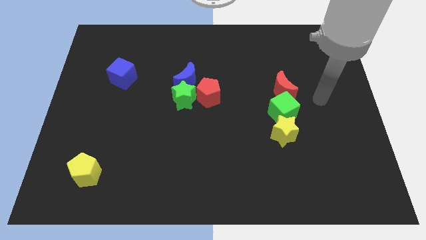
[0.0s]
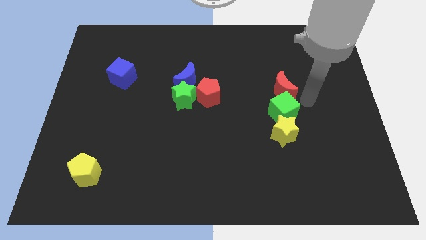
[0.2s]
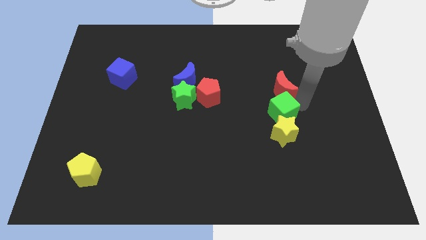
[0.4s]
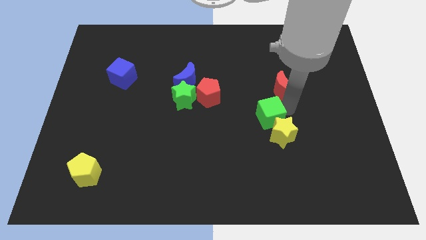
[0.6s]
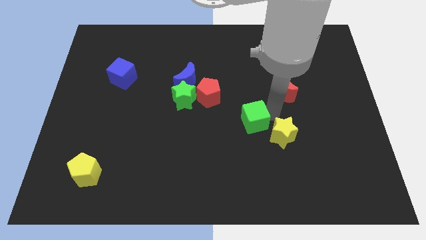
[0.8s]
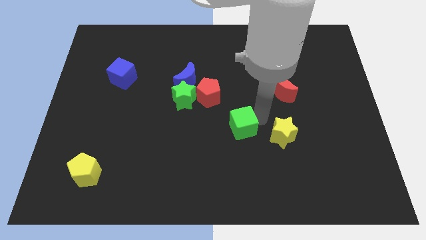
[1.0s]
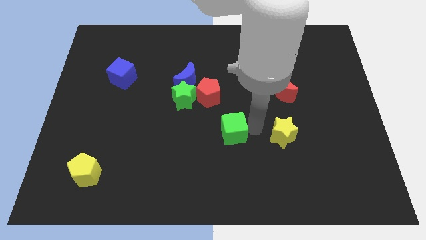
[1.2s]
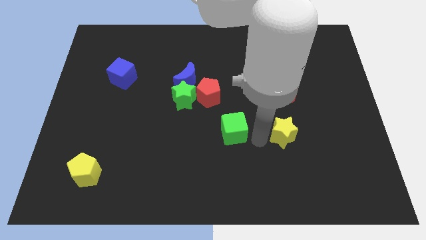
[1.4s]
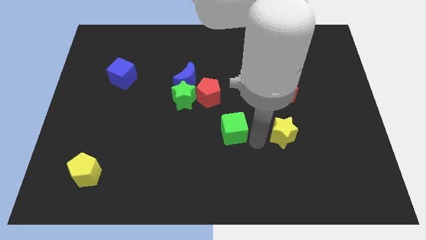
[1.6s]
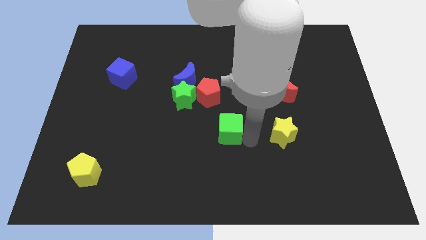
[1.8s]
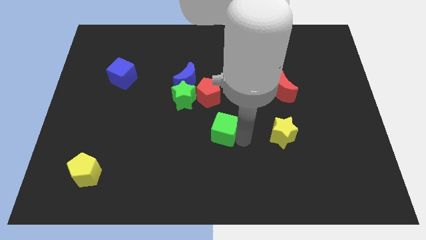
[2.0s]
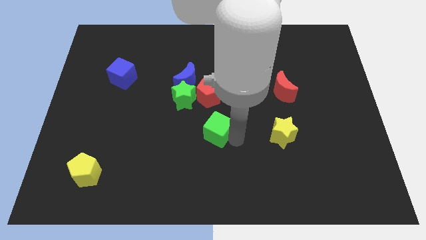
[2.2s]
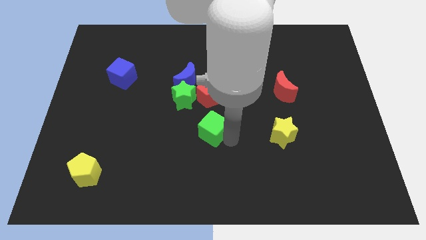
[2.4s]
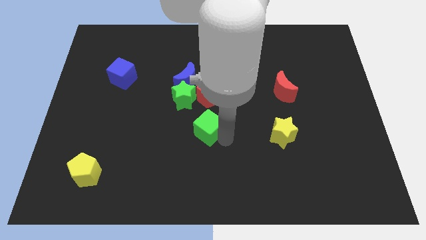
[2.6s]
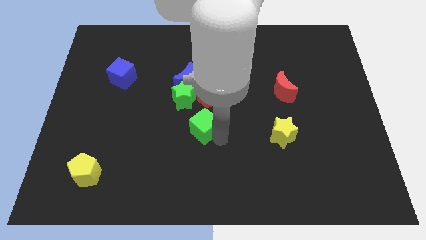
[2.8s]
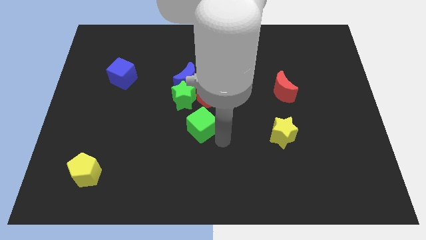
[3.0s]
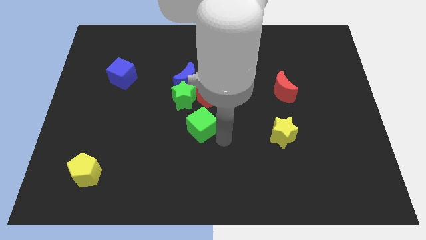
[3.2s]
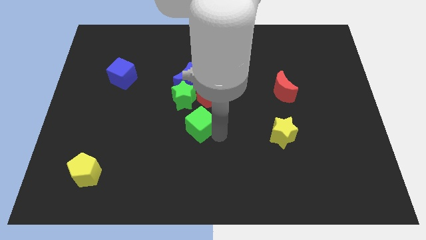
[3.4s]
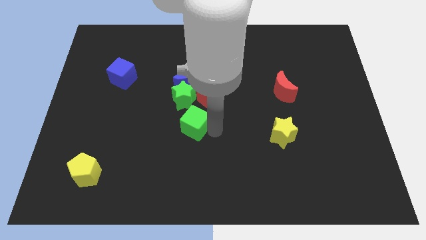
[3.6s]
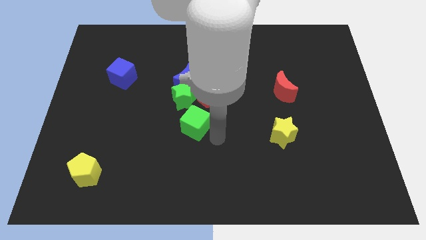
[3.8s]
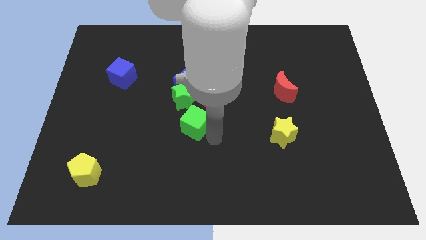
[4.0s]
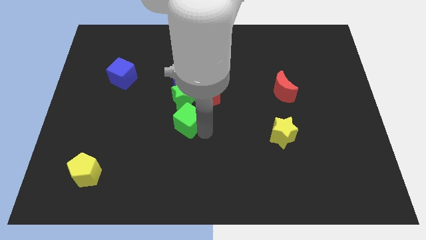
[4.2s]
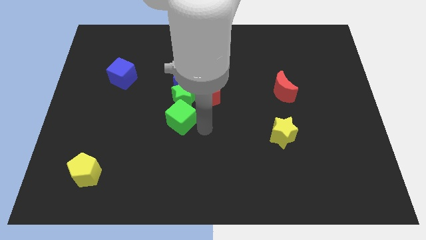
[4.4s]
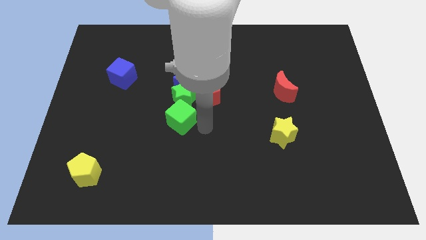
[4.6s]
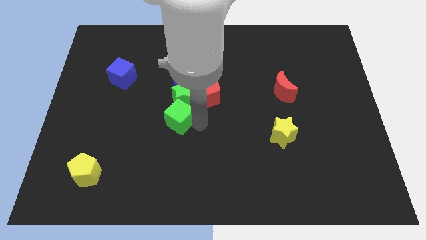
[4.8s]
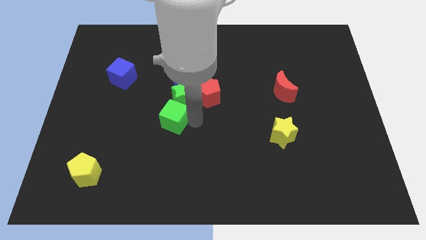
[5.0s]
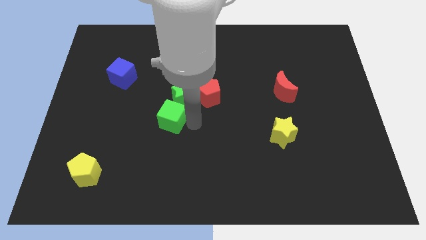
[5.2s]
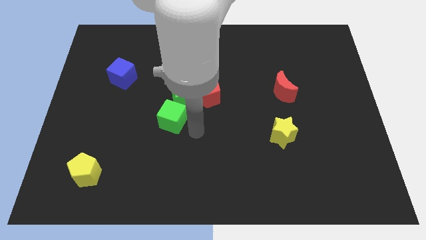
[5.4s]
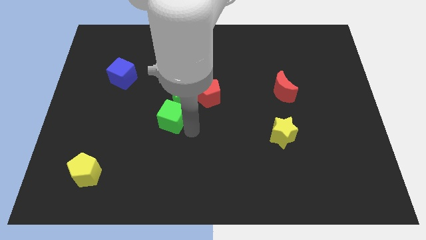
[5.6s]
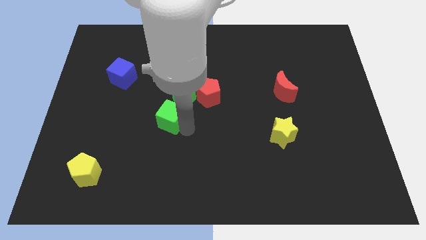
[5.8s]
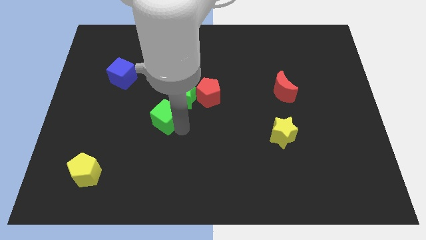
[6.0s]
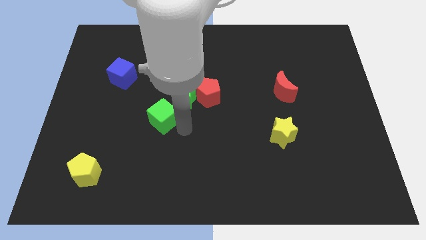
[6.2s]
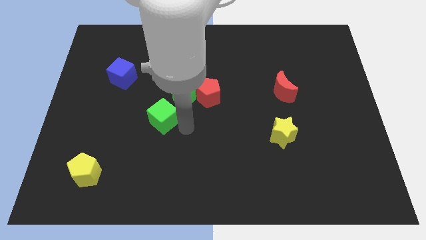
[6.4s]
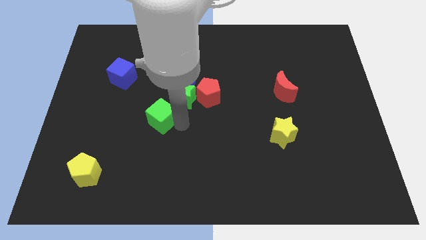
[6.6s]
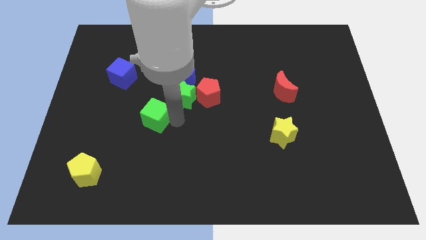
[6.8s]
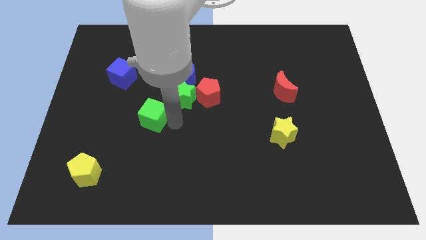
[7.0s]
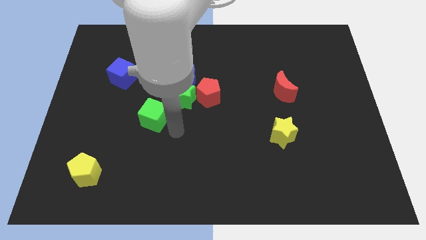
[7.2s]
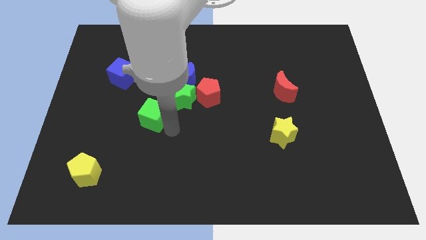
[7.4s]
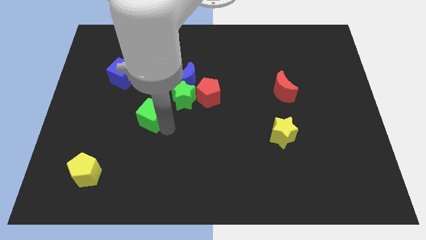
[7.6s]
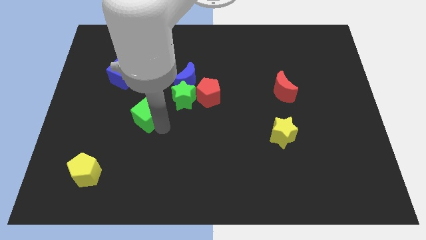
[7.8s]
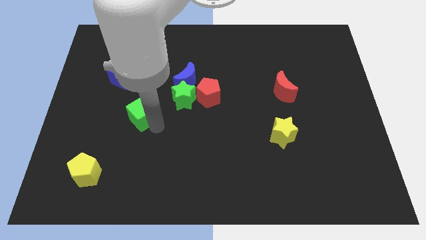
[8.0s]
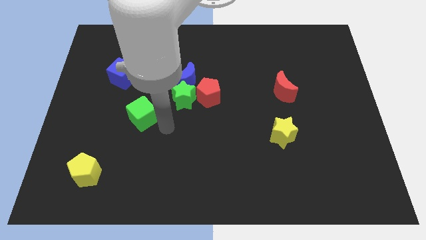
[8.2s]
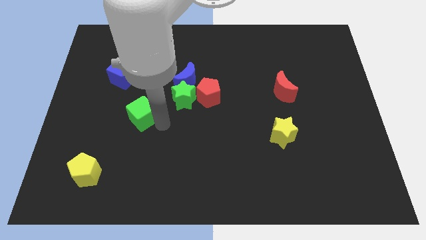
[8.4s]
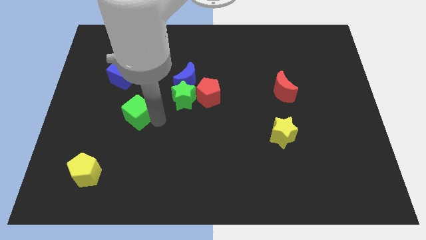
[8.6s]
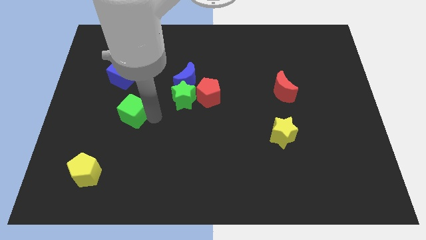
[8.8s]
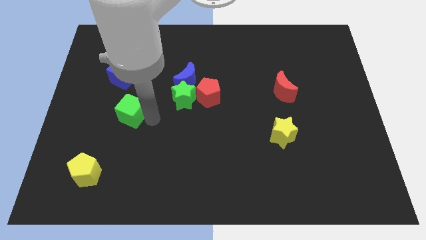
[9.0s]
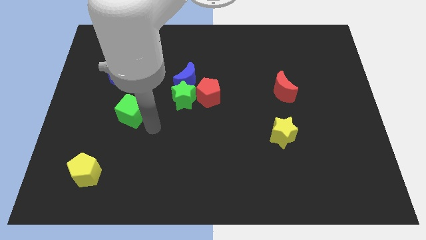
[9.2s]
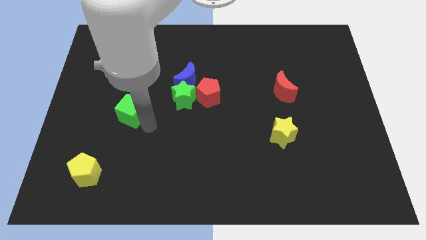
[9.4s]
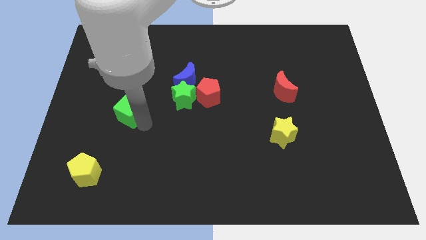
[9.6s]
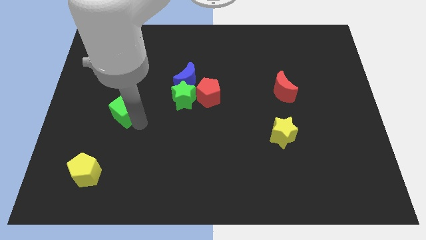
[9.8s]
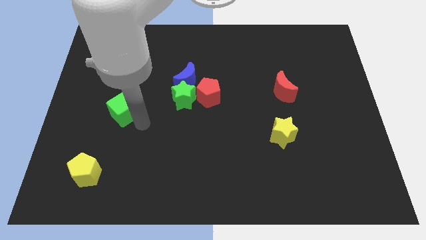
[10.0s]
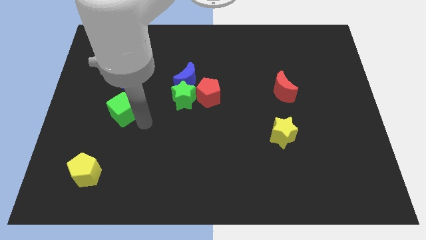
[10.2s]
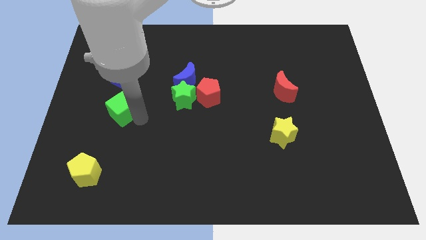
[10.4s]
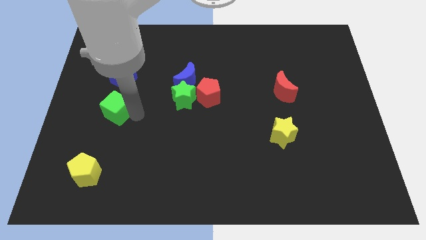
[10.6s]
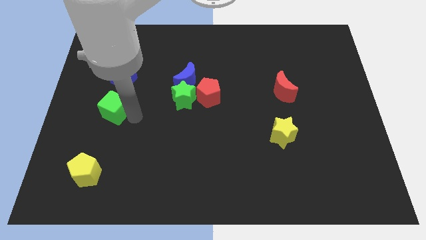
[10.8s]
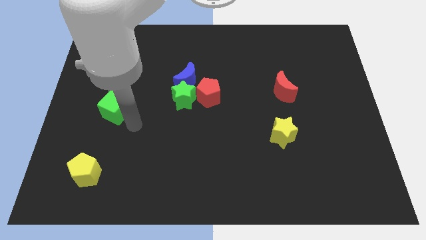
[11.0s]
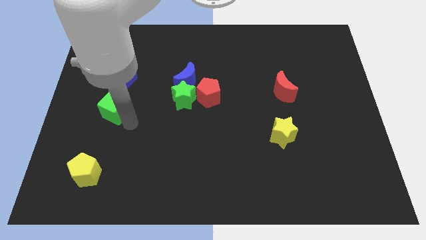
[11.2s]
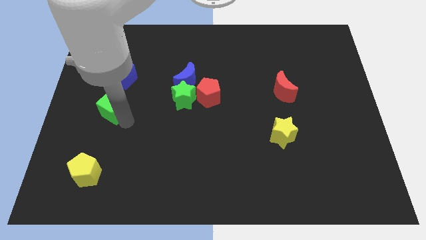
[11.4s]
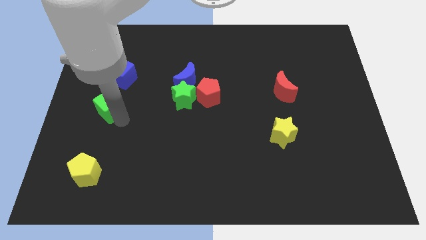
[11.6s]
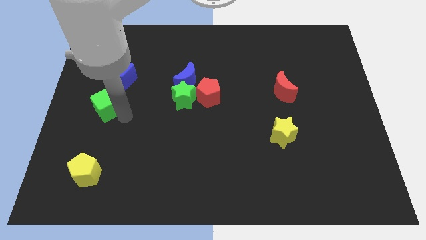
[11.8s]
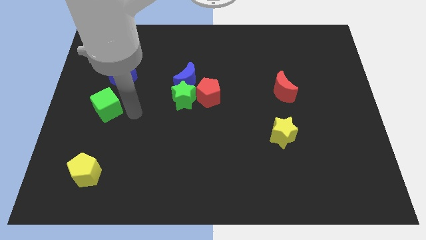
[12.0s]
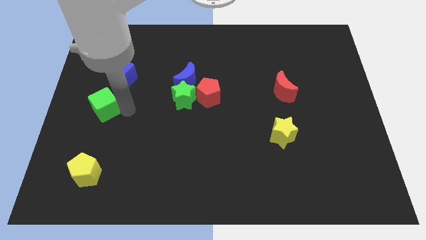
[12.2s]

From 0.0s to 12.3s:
move the green cube to the center left
